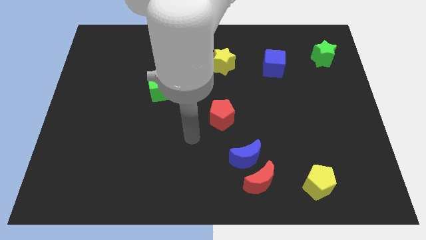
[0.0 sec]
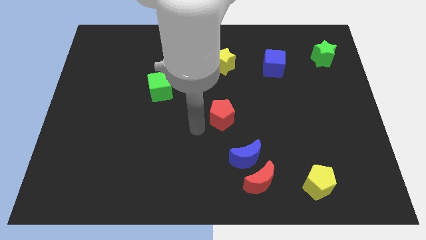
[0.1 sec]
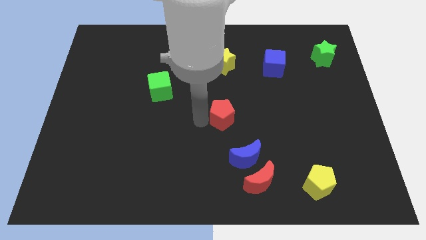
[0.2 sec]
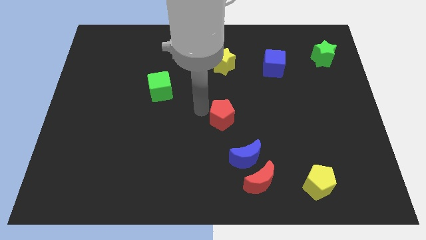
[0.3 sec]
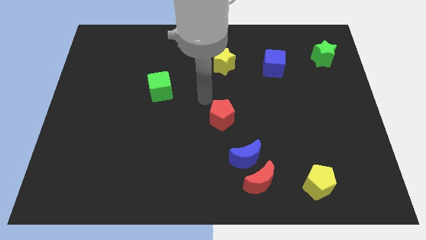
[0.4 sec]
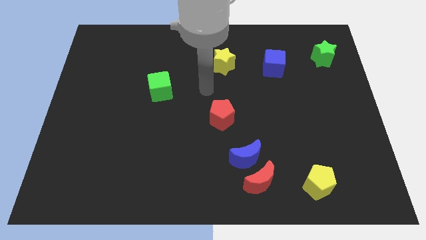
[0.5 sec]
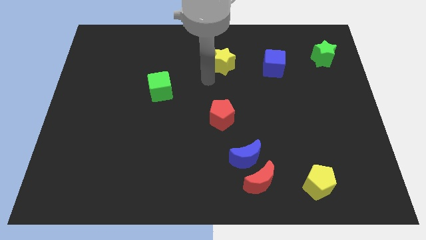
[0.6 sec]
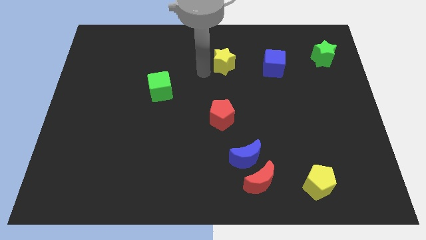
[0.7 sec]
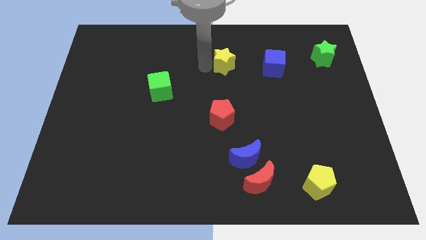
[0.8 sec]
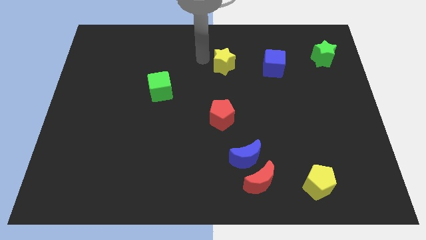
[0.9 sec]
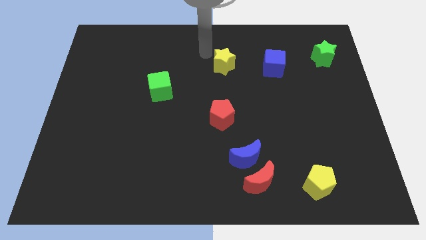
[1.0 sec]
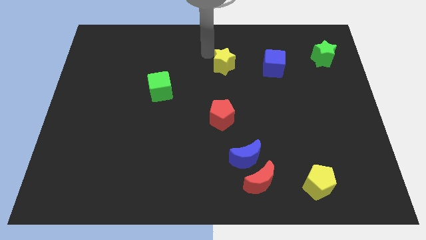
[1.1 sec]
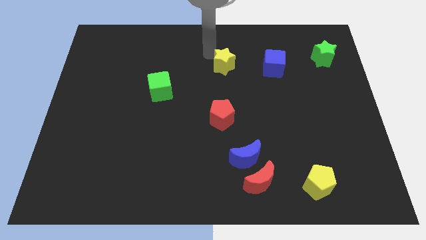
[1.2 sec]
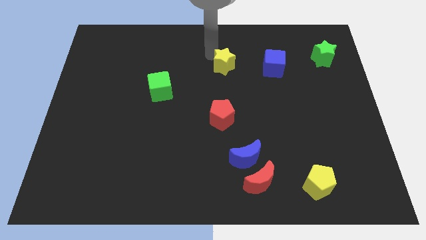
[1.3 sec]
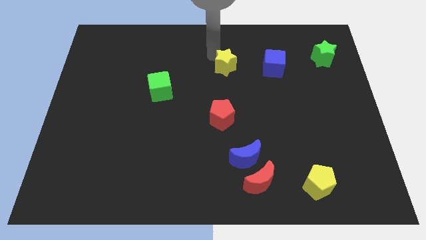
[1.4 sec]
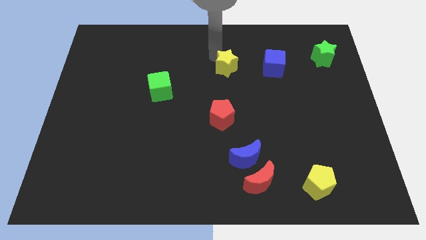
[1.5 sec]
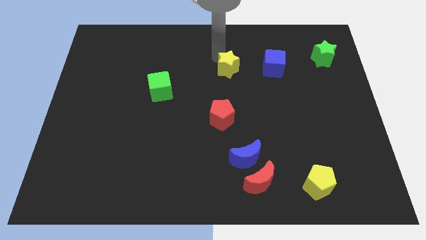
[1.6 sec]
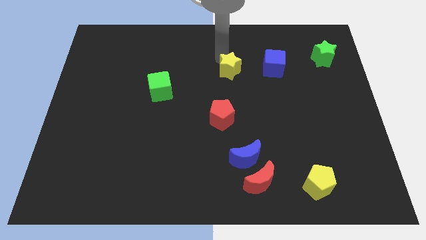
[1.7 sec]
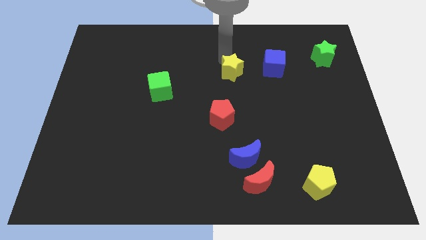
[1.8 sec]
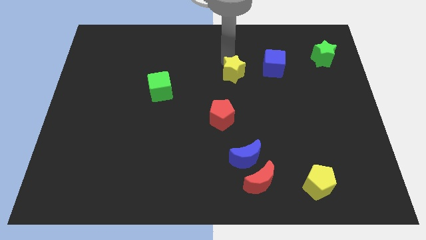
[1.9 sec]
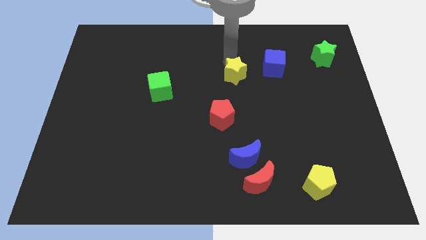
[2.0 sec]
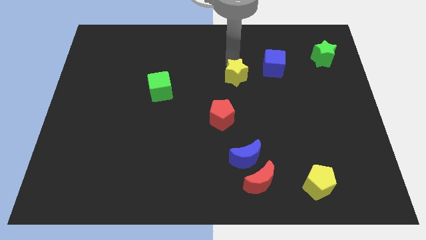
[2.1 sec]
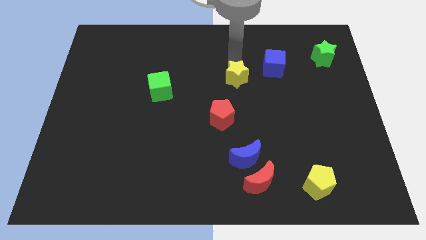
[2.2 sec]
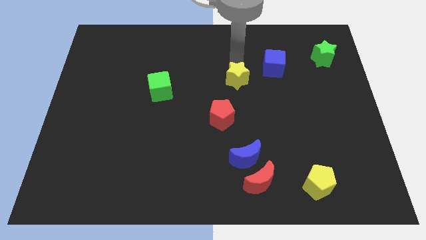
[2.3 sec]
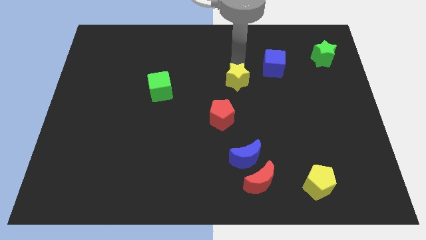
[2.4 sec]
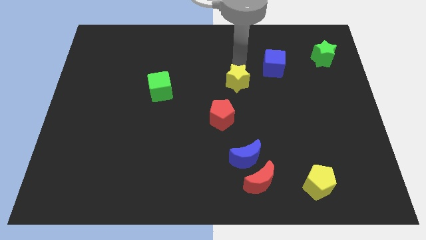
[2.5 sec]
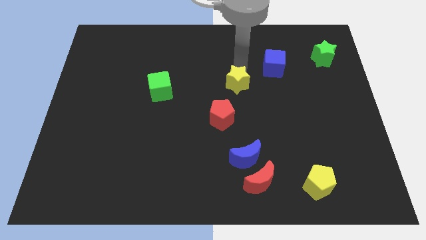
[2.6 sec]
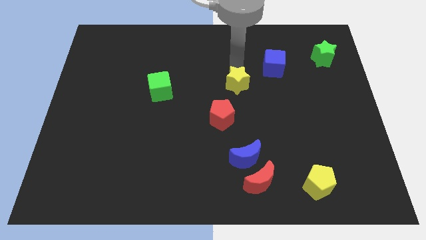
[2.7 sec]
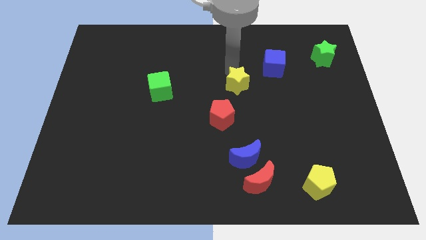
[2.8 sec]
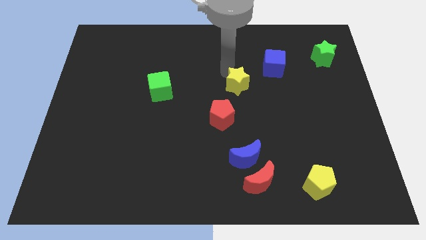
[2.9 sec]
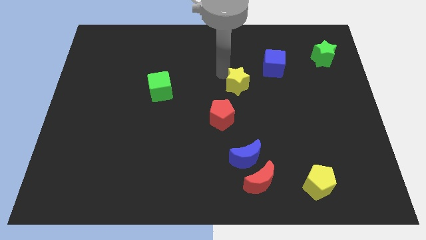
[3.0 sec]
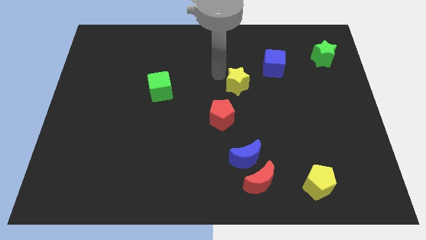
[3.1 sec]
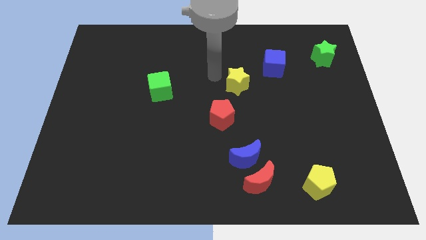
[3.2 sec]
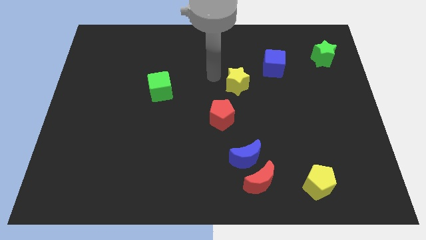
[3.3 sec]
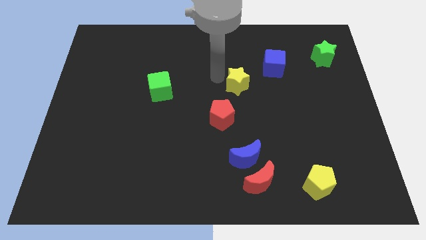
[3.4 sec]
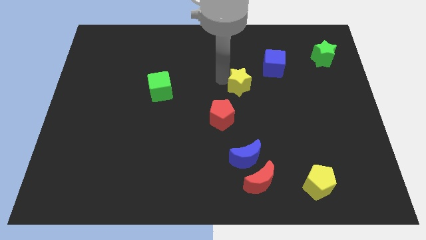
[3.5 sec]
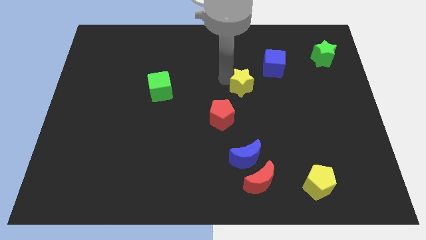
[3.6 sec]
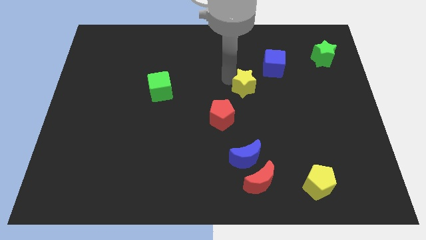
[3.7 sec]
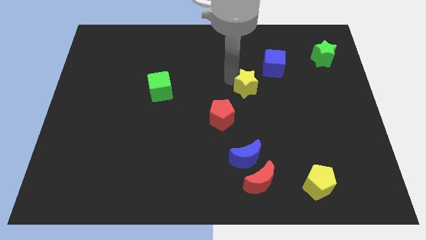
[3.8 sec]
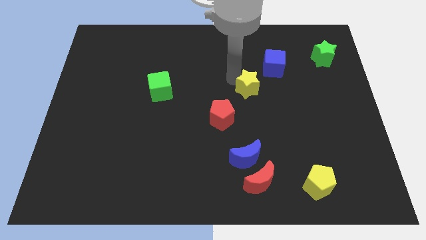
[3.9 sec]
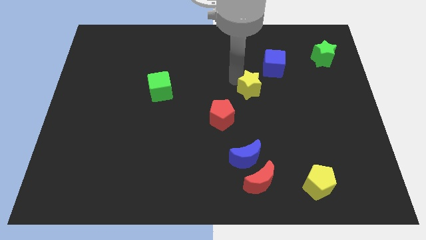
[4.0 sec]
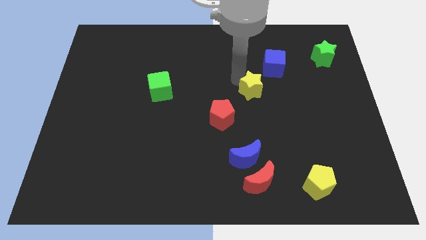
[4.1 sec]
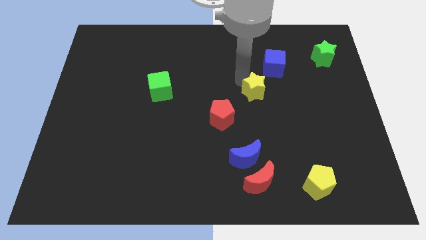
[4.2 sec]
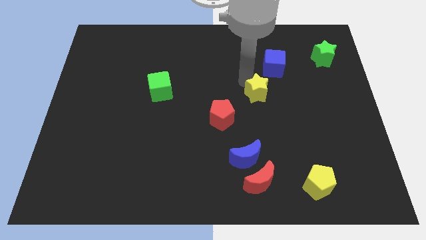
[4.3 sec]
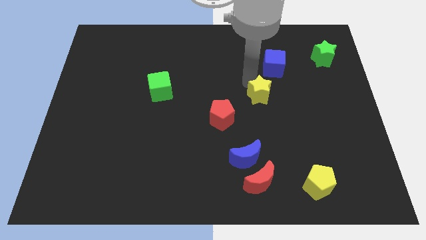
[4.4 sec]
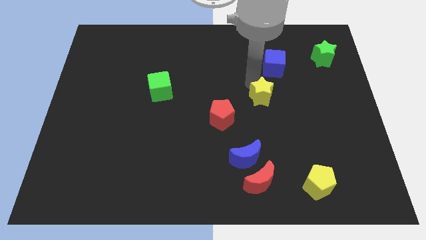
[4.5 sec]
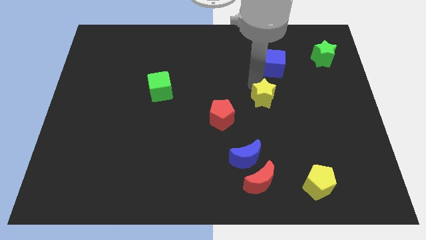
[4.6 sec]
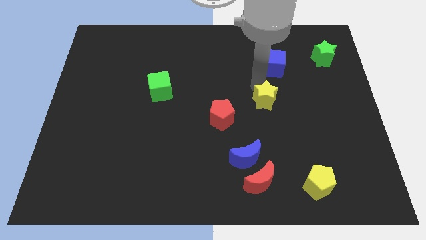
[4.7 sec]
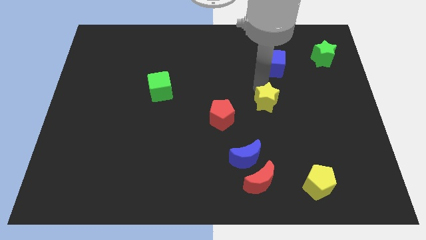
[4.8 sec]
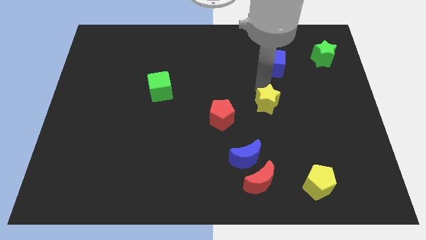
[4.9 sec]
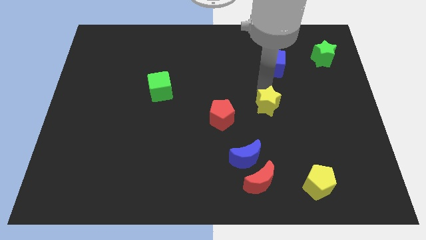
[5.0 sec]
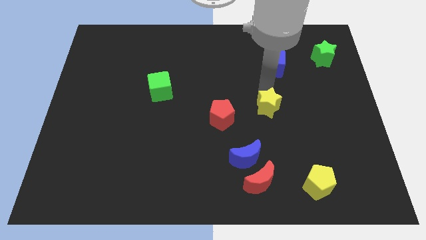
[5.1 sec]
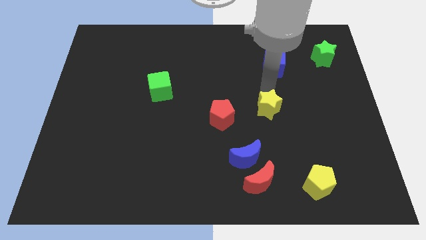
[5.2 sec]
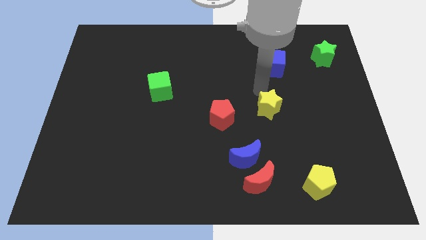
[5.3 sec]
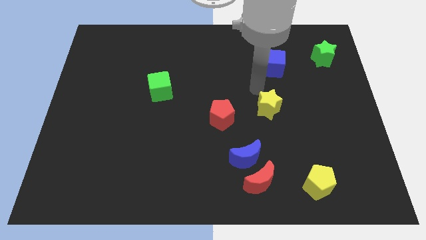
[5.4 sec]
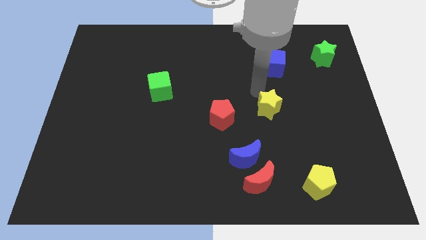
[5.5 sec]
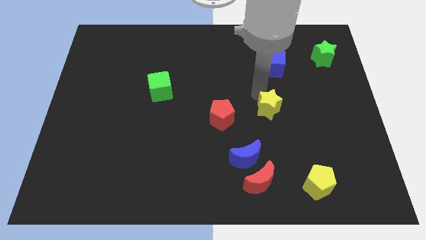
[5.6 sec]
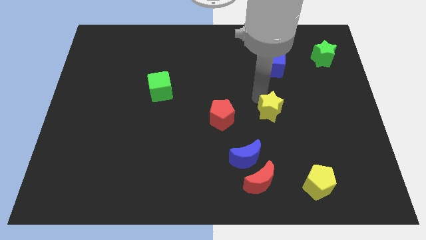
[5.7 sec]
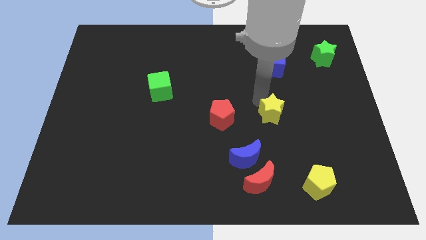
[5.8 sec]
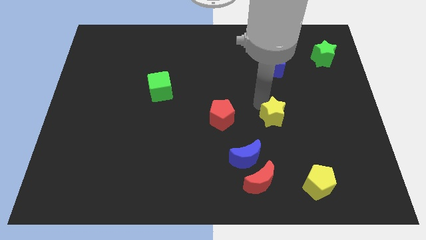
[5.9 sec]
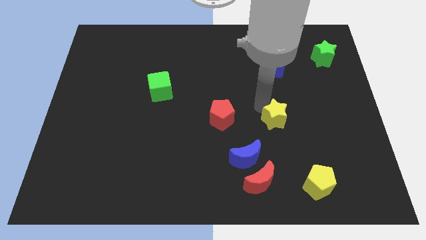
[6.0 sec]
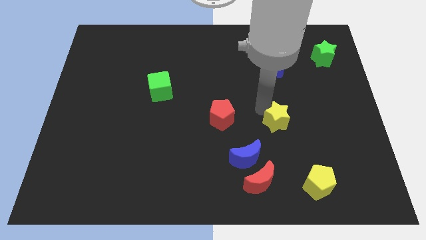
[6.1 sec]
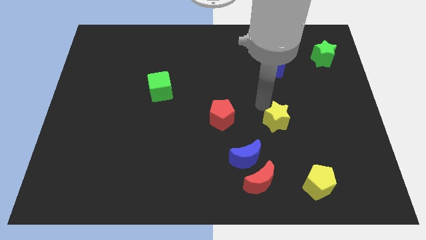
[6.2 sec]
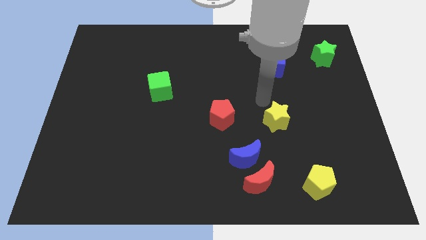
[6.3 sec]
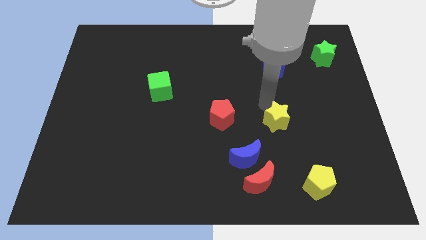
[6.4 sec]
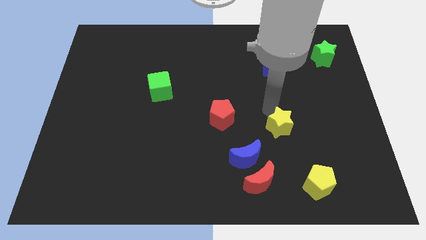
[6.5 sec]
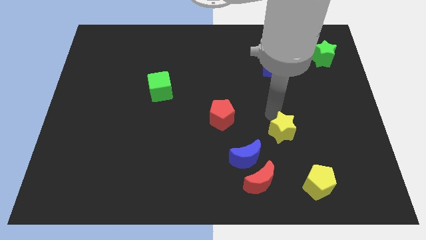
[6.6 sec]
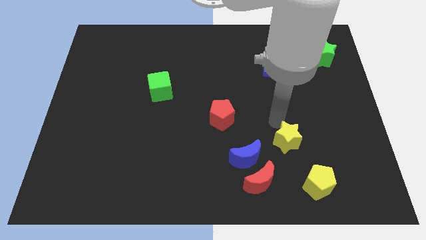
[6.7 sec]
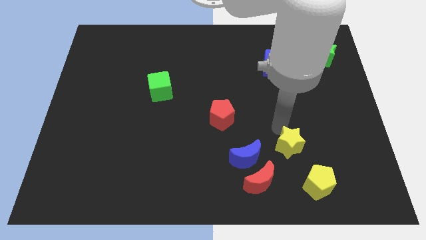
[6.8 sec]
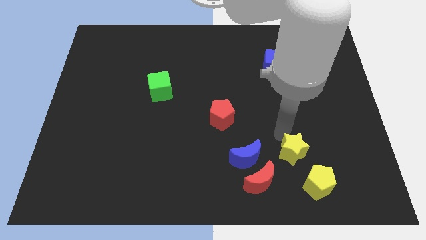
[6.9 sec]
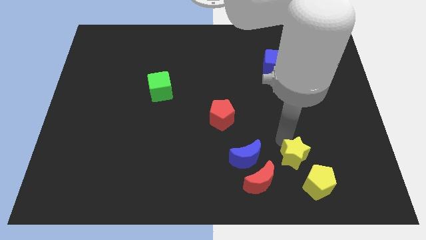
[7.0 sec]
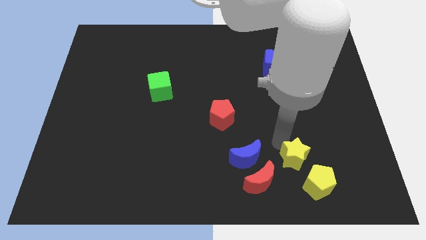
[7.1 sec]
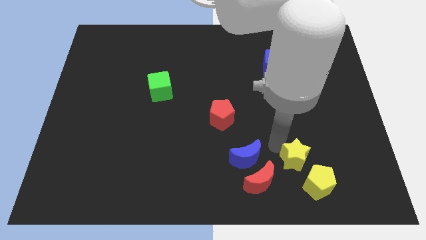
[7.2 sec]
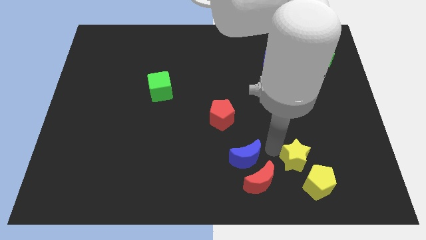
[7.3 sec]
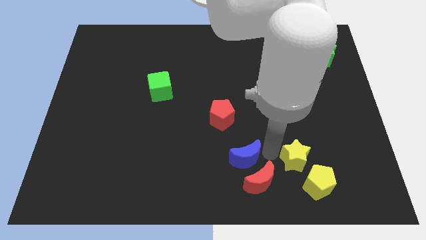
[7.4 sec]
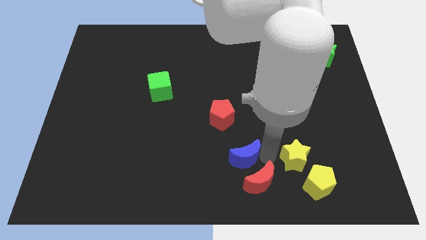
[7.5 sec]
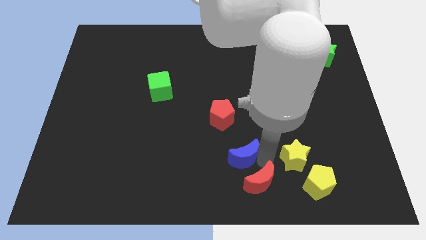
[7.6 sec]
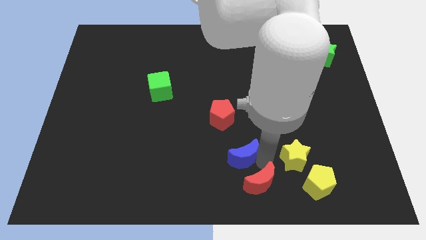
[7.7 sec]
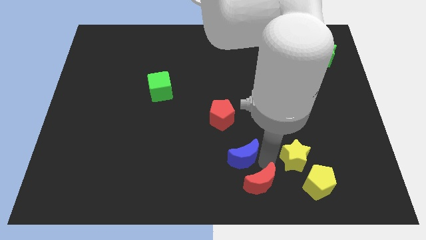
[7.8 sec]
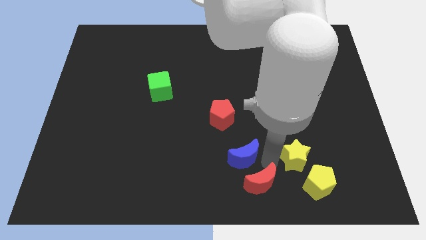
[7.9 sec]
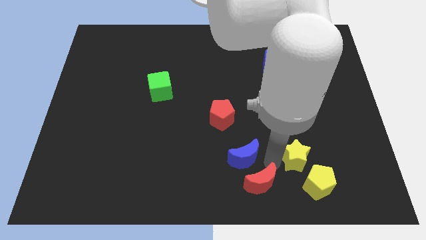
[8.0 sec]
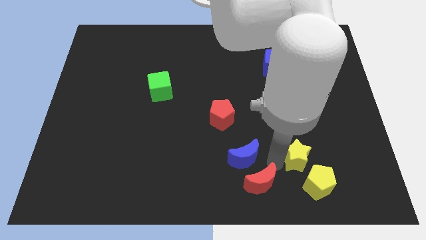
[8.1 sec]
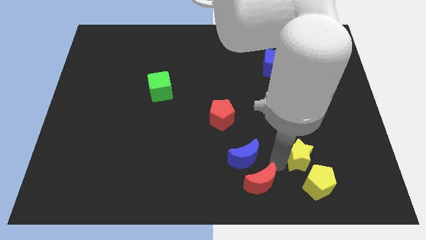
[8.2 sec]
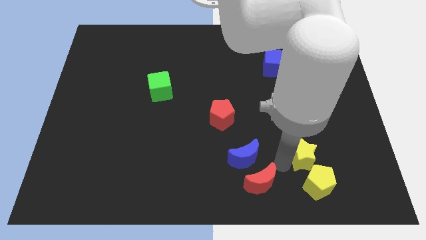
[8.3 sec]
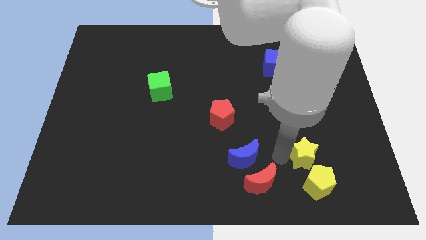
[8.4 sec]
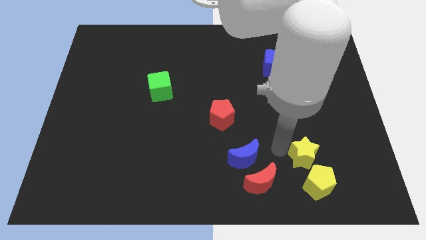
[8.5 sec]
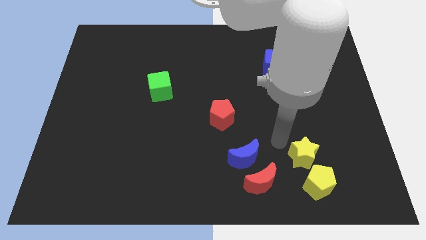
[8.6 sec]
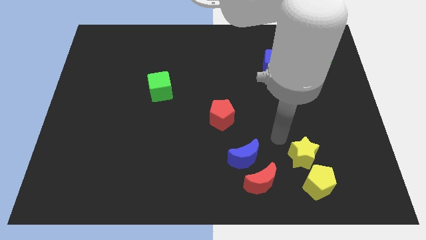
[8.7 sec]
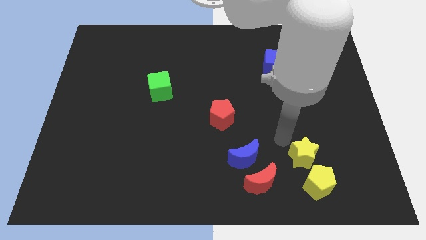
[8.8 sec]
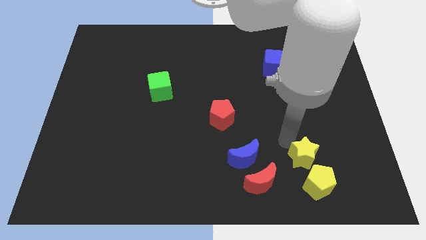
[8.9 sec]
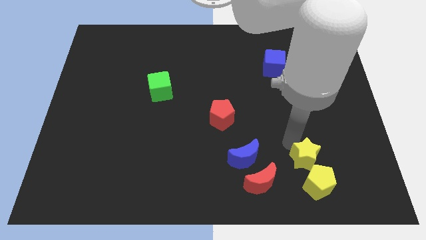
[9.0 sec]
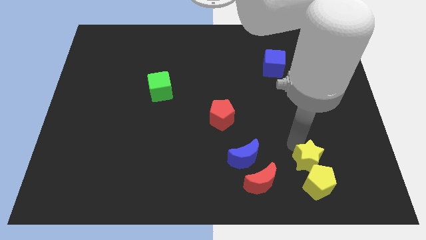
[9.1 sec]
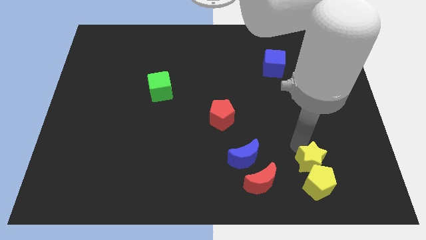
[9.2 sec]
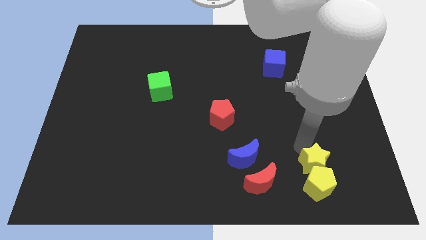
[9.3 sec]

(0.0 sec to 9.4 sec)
push the yellow star right of the red moon
